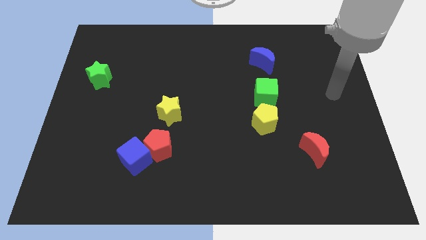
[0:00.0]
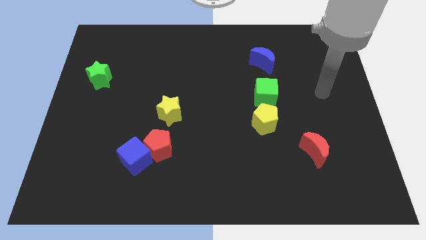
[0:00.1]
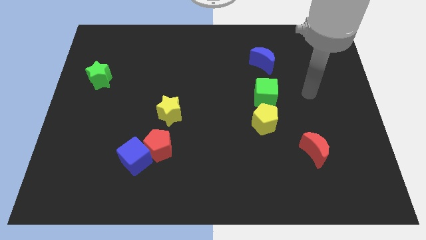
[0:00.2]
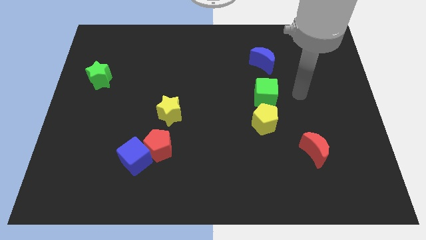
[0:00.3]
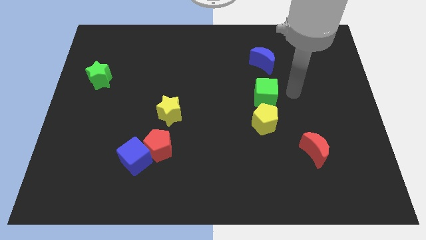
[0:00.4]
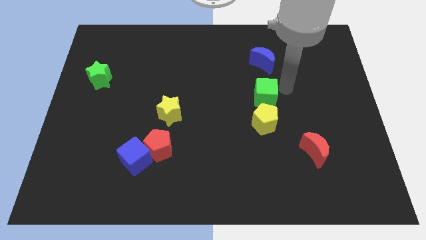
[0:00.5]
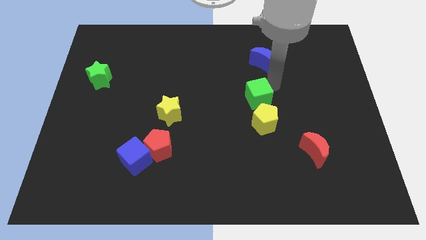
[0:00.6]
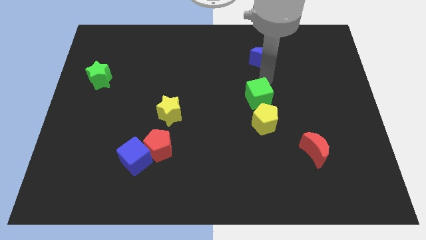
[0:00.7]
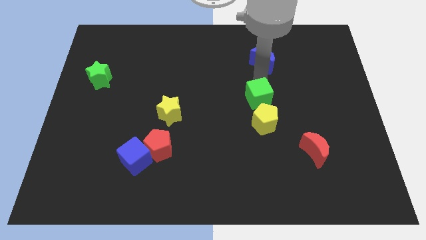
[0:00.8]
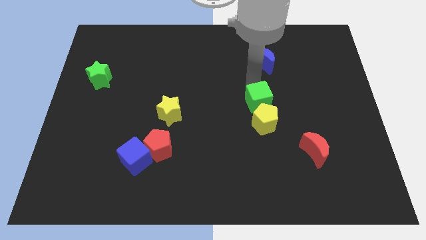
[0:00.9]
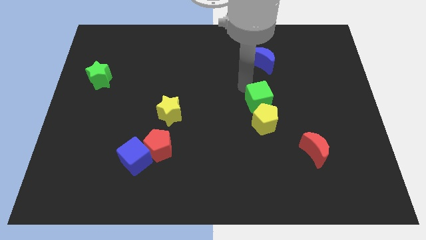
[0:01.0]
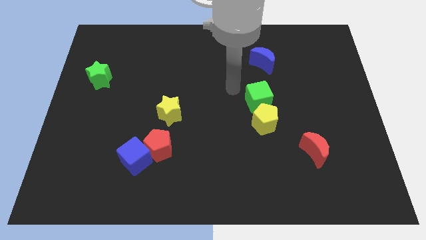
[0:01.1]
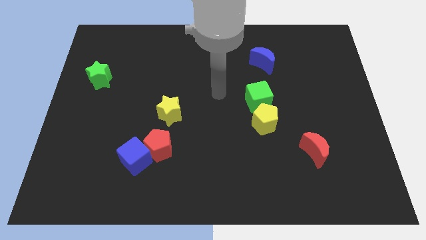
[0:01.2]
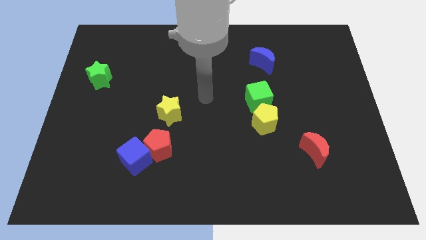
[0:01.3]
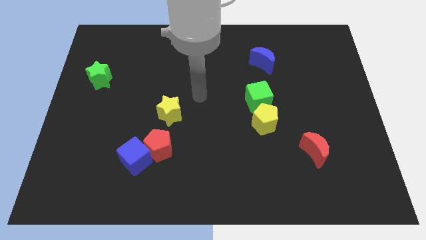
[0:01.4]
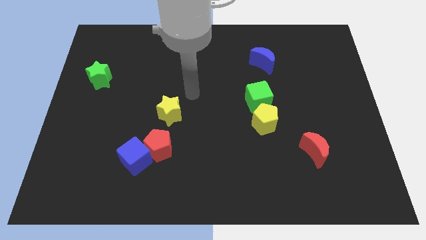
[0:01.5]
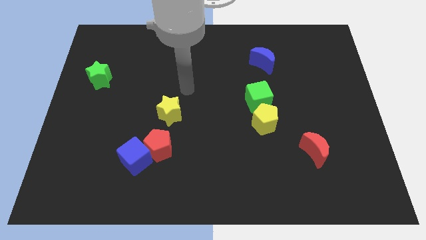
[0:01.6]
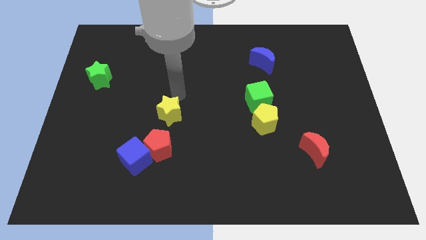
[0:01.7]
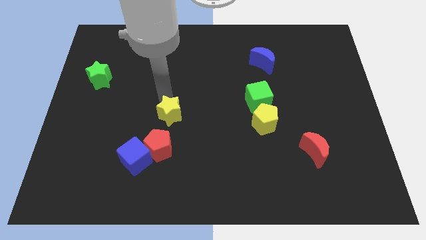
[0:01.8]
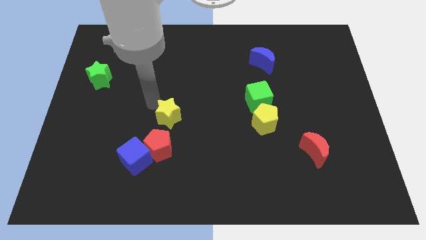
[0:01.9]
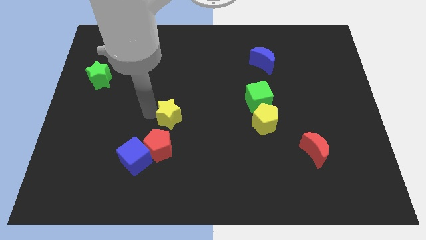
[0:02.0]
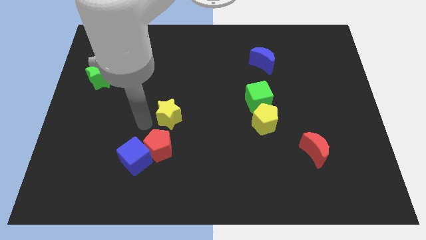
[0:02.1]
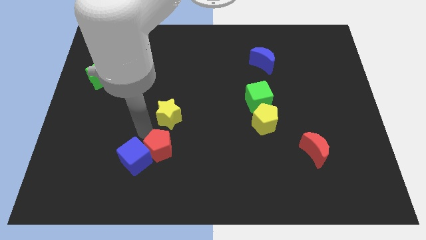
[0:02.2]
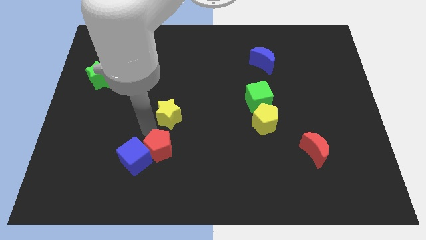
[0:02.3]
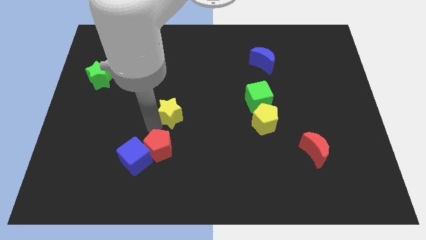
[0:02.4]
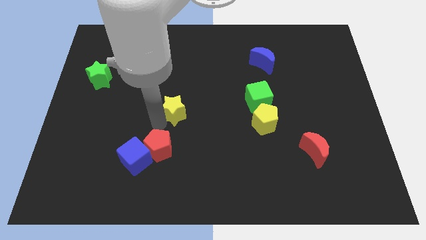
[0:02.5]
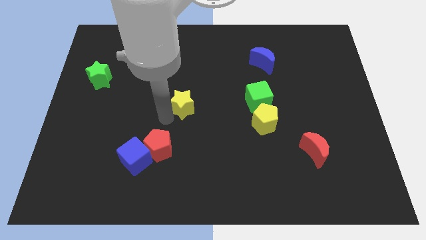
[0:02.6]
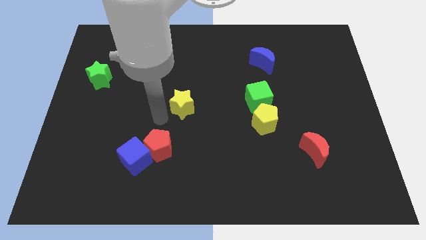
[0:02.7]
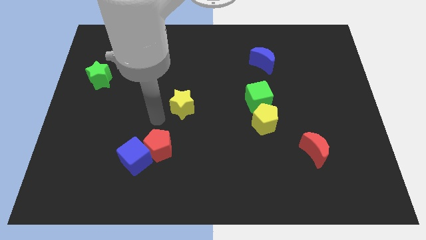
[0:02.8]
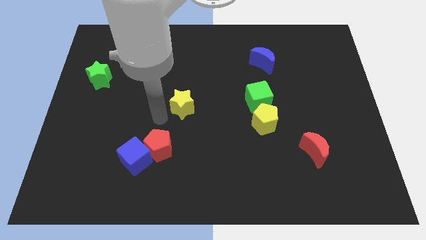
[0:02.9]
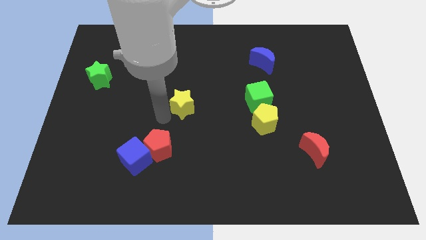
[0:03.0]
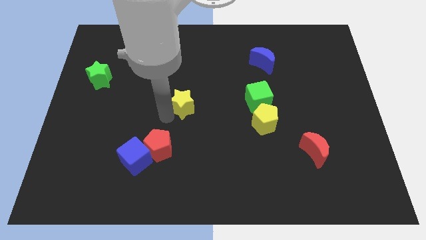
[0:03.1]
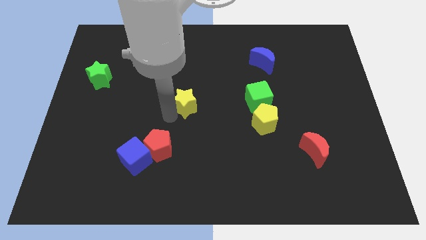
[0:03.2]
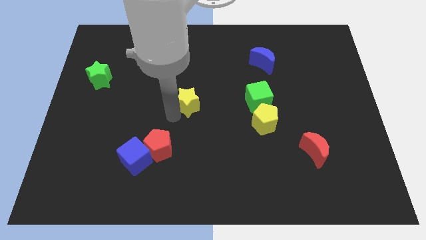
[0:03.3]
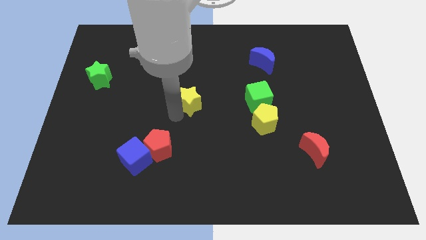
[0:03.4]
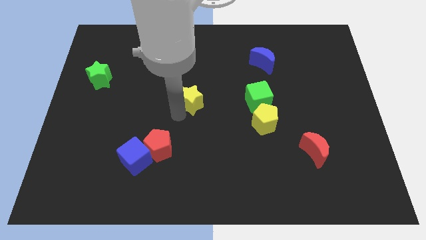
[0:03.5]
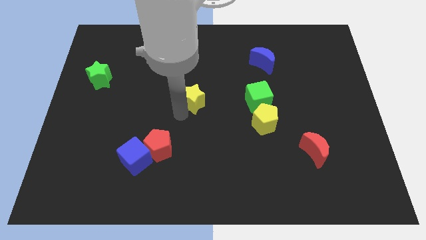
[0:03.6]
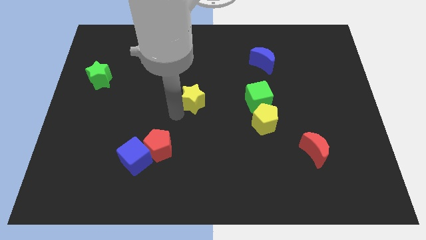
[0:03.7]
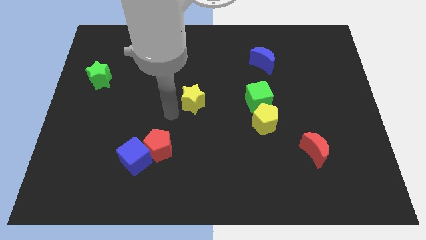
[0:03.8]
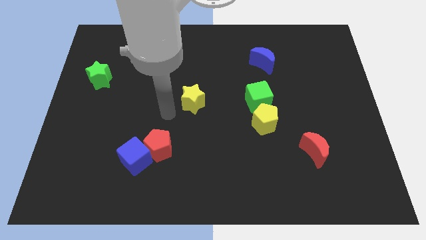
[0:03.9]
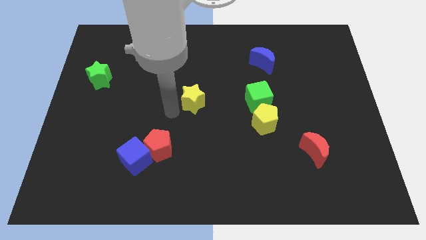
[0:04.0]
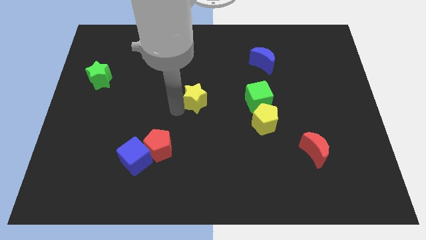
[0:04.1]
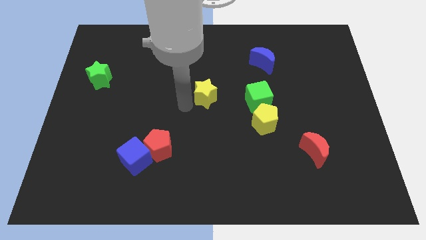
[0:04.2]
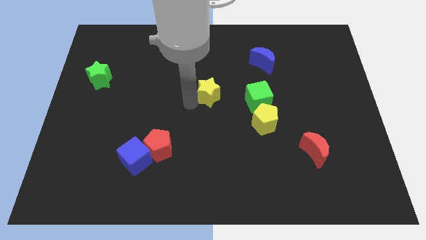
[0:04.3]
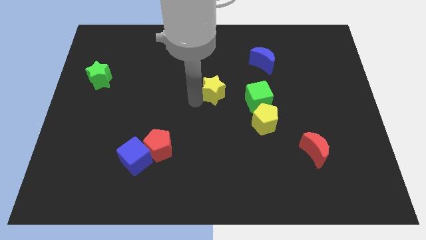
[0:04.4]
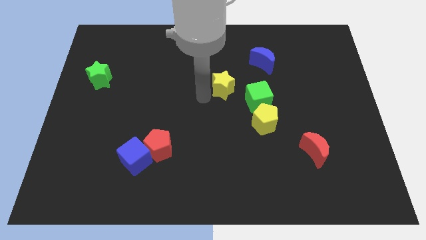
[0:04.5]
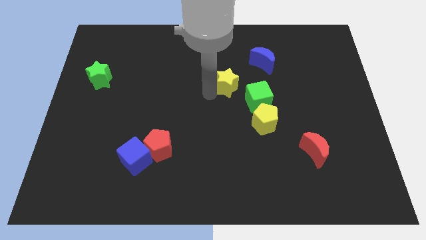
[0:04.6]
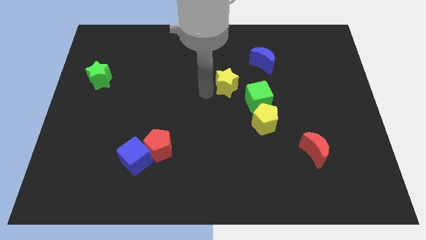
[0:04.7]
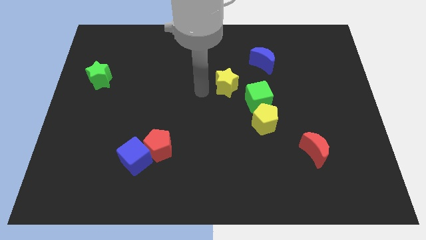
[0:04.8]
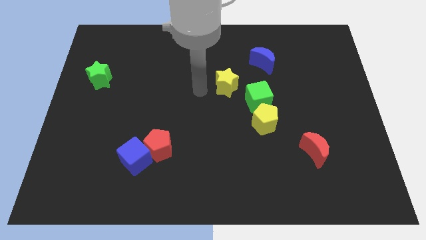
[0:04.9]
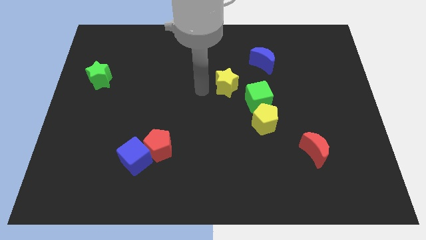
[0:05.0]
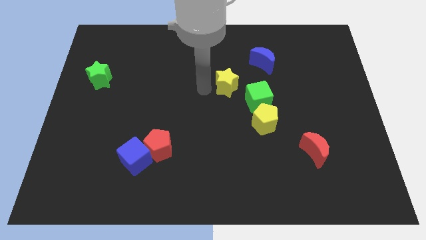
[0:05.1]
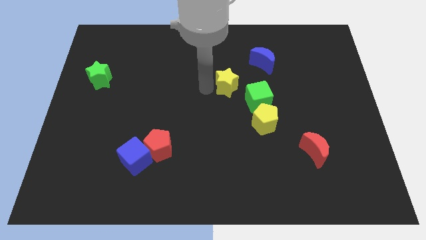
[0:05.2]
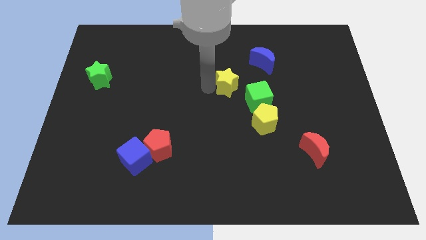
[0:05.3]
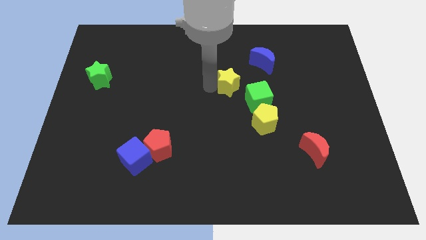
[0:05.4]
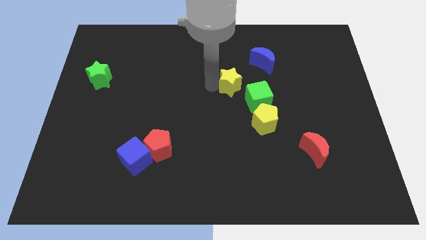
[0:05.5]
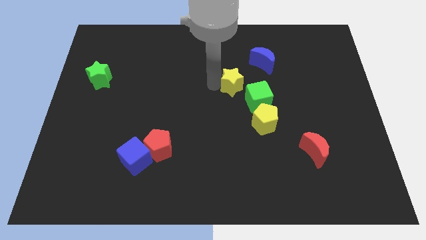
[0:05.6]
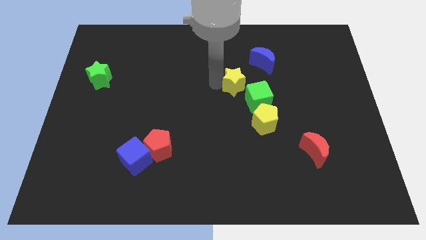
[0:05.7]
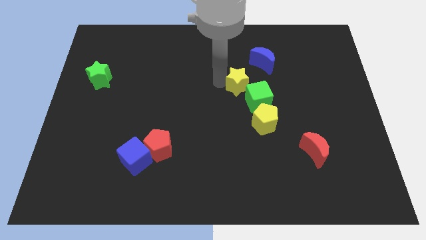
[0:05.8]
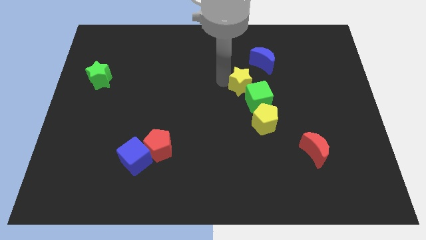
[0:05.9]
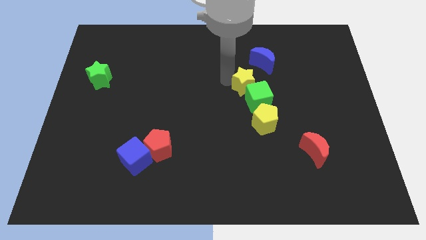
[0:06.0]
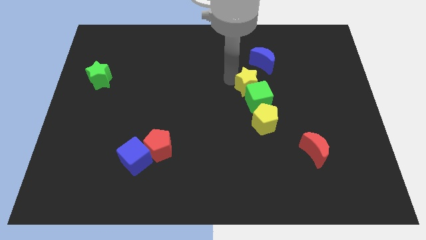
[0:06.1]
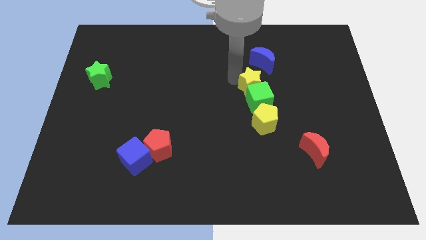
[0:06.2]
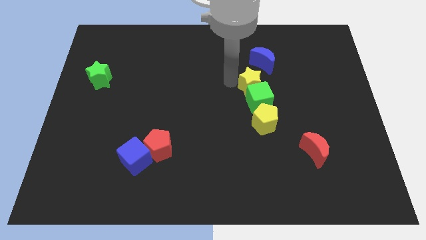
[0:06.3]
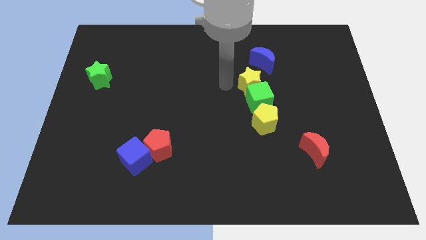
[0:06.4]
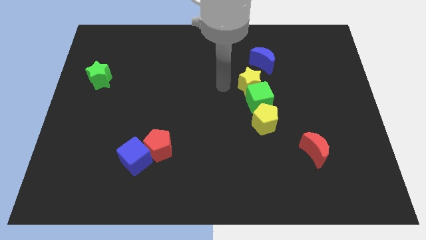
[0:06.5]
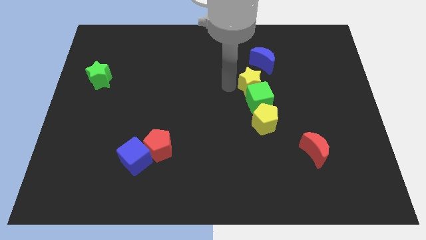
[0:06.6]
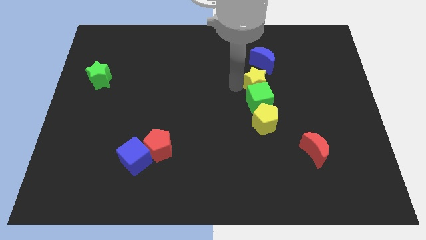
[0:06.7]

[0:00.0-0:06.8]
move the yellow star diagonally up and to the right of the green cube
